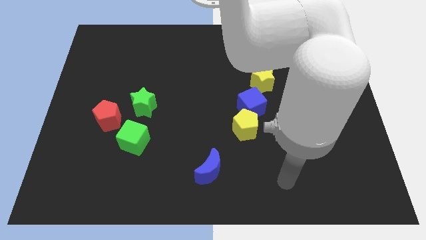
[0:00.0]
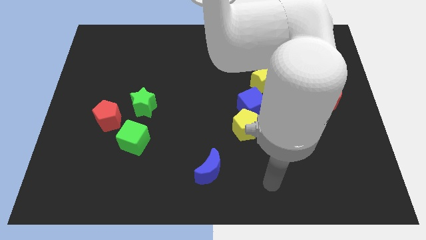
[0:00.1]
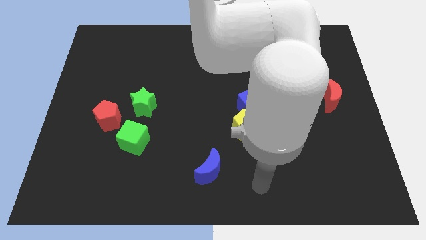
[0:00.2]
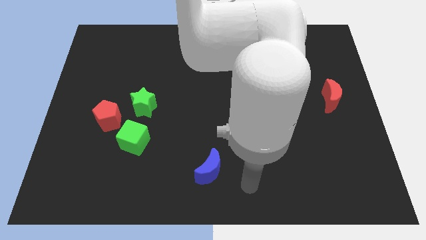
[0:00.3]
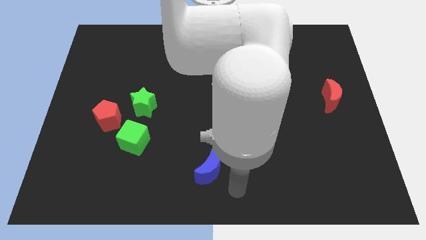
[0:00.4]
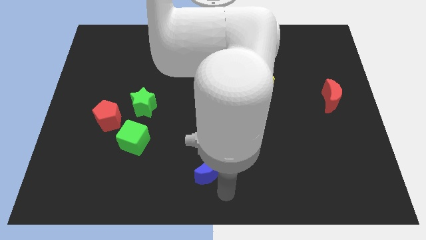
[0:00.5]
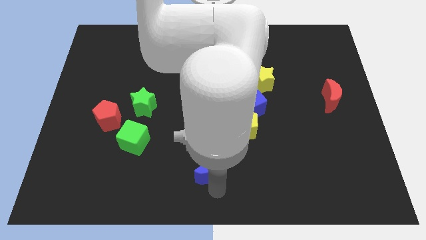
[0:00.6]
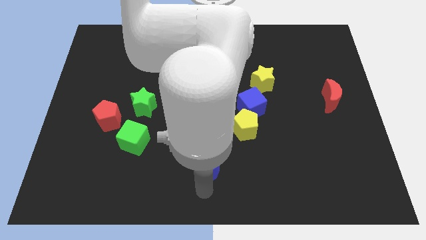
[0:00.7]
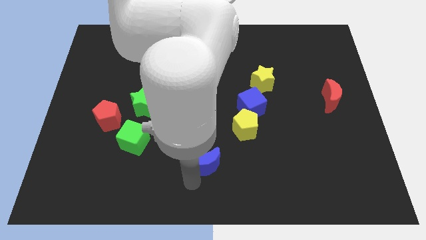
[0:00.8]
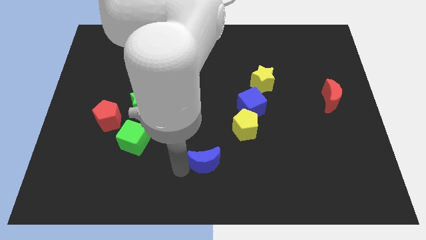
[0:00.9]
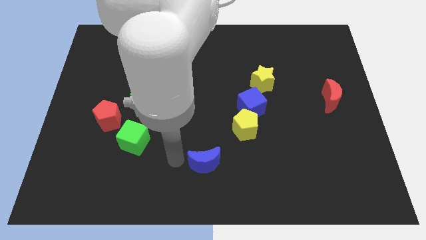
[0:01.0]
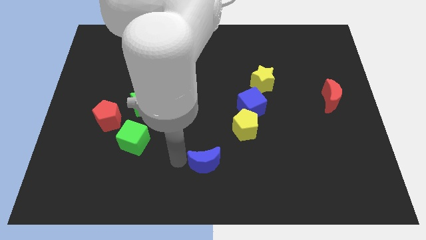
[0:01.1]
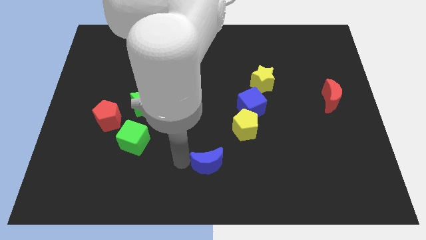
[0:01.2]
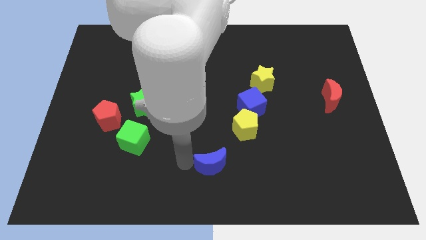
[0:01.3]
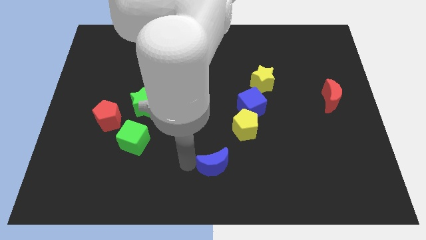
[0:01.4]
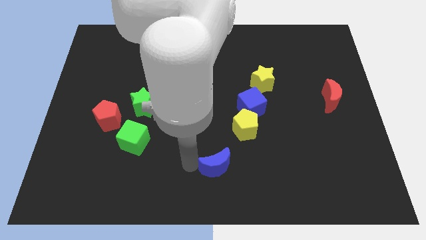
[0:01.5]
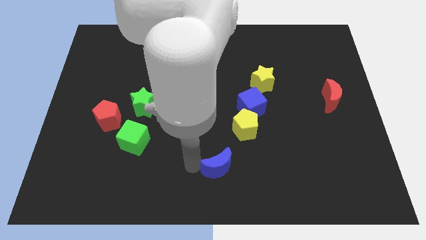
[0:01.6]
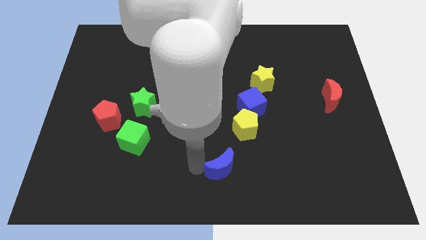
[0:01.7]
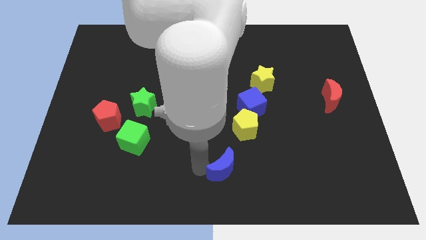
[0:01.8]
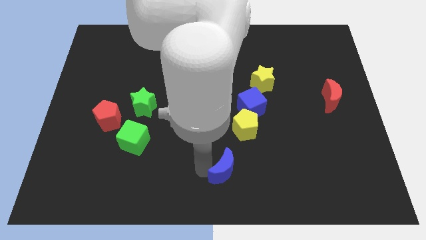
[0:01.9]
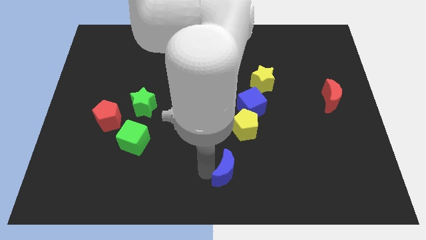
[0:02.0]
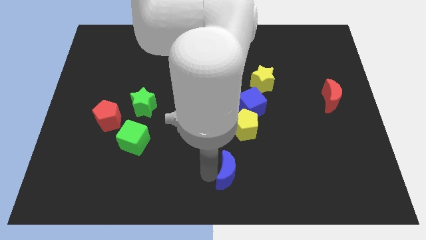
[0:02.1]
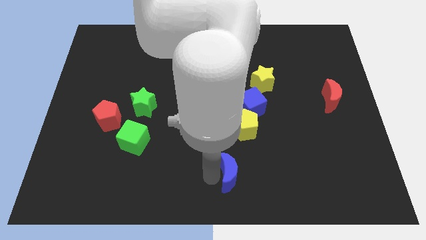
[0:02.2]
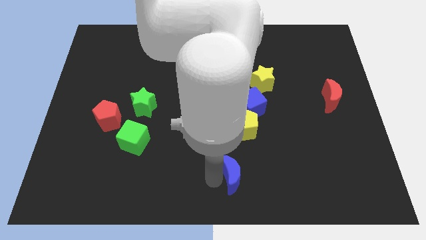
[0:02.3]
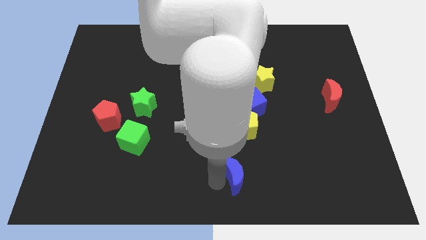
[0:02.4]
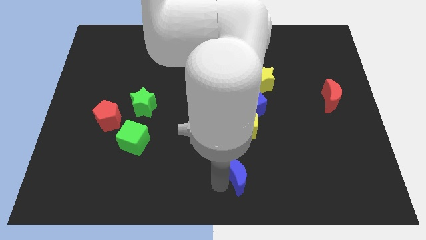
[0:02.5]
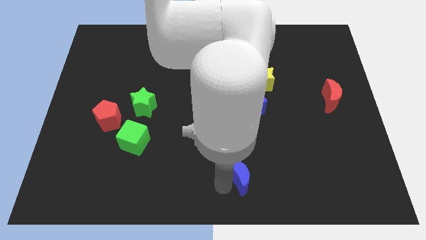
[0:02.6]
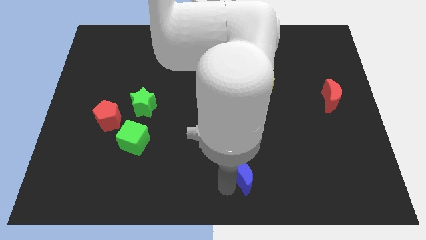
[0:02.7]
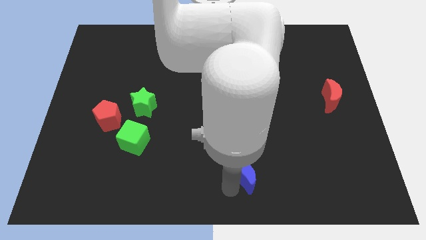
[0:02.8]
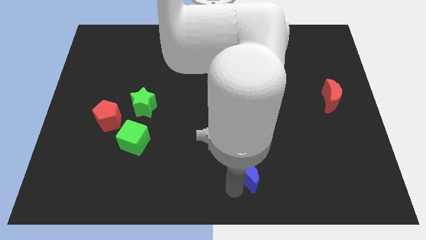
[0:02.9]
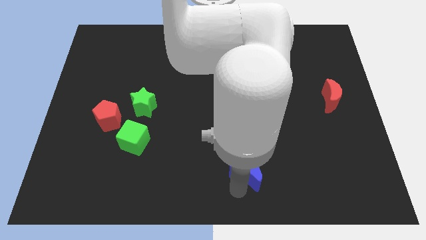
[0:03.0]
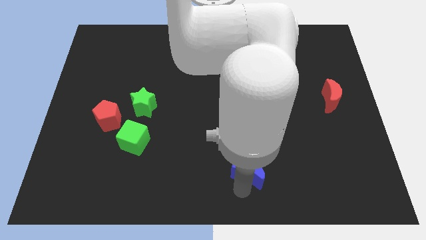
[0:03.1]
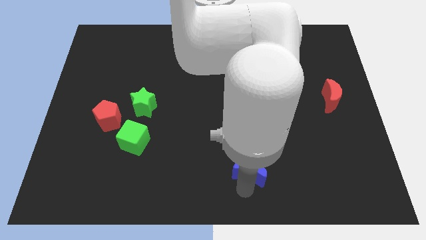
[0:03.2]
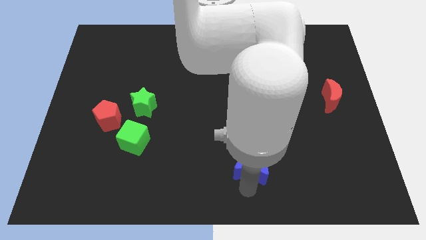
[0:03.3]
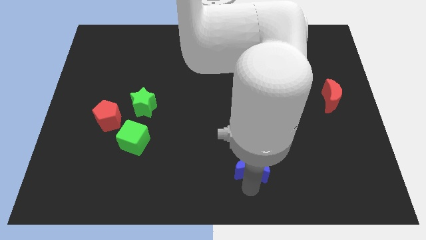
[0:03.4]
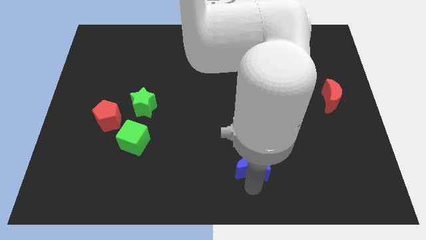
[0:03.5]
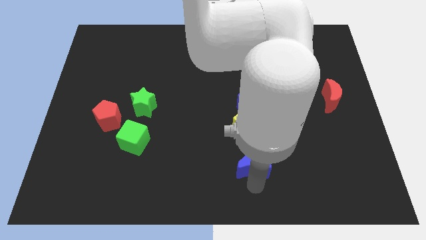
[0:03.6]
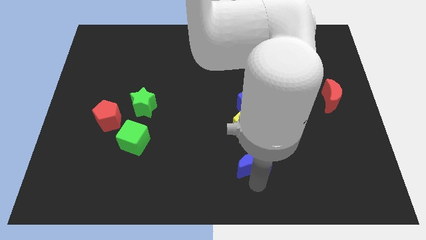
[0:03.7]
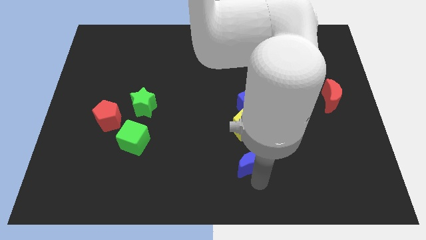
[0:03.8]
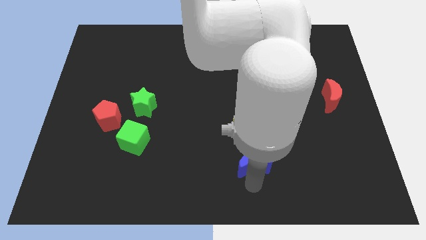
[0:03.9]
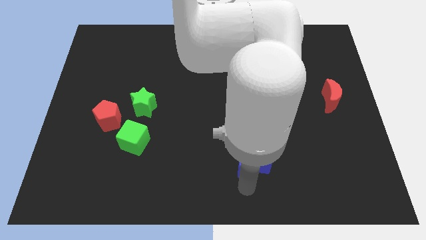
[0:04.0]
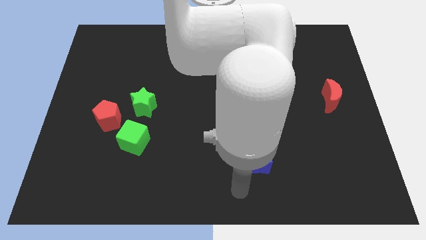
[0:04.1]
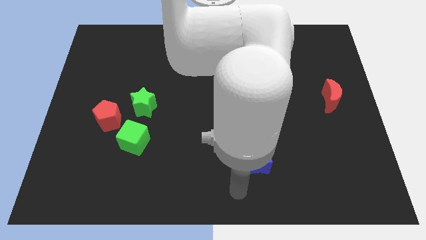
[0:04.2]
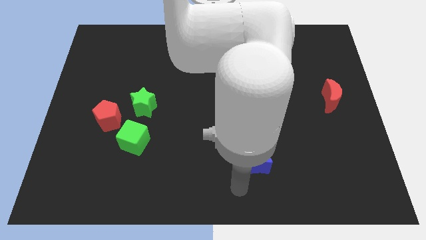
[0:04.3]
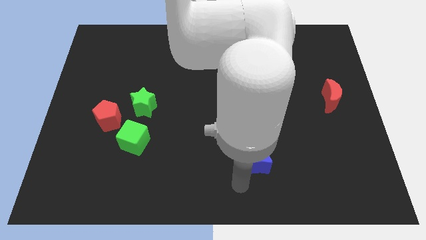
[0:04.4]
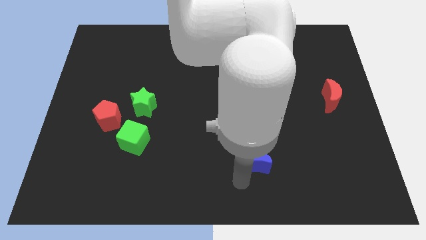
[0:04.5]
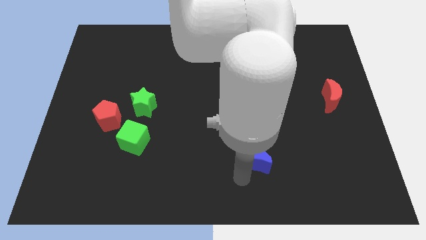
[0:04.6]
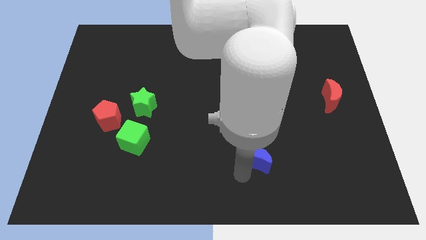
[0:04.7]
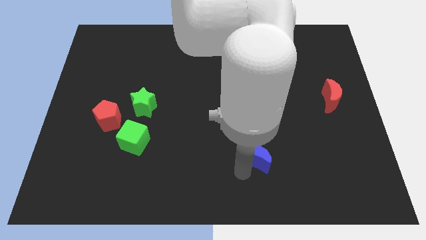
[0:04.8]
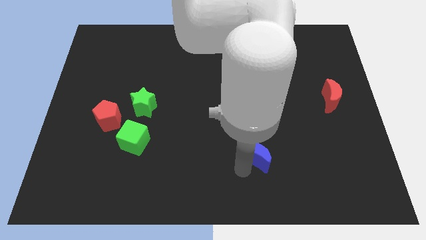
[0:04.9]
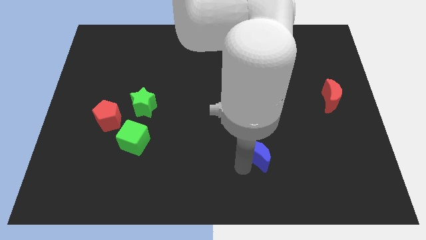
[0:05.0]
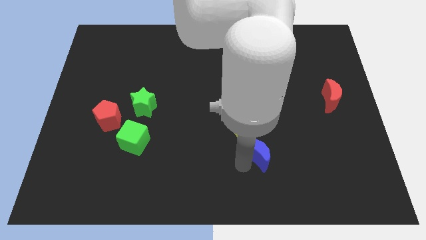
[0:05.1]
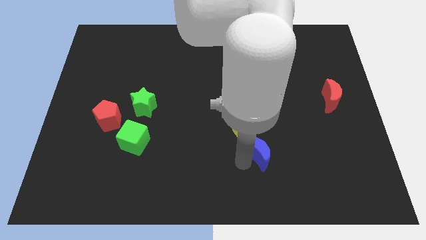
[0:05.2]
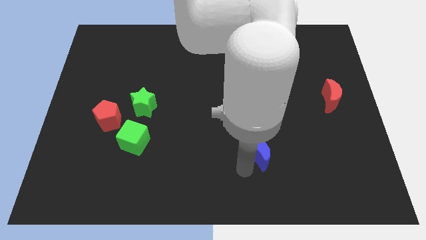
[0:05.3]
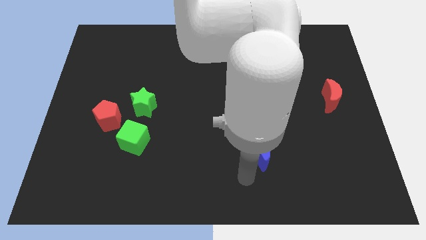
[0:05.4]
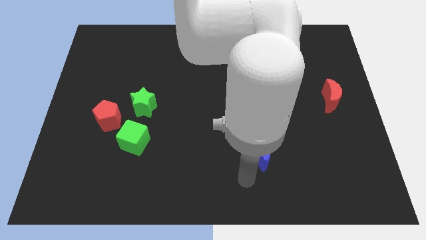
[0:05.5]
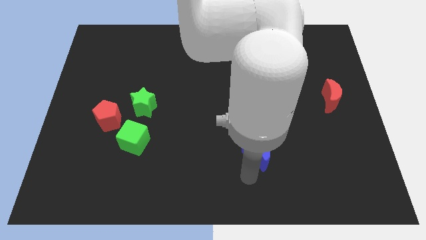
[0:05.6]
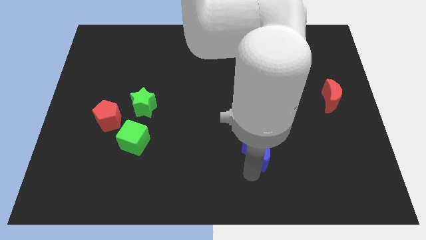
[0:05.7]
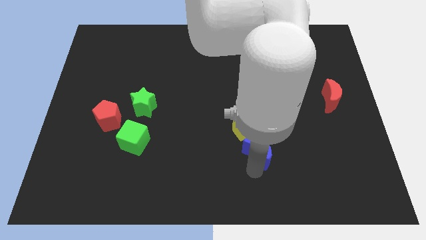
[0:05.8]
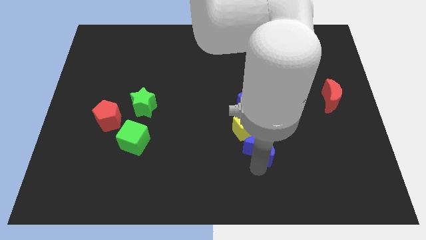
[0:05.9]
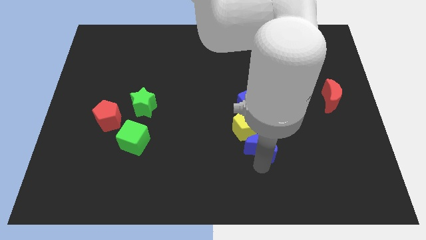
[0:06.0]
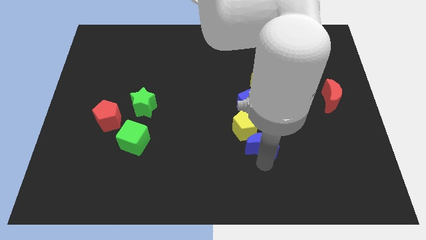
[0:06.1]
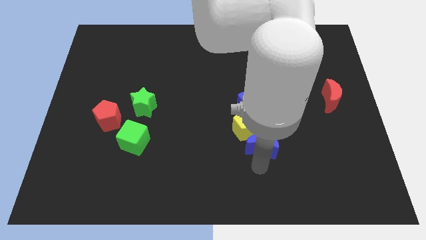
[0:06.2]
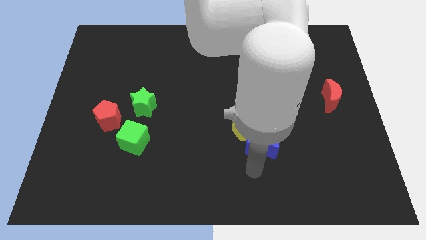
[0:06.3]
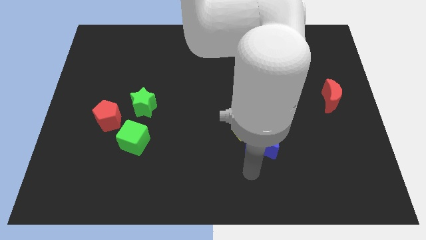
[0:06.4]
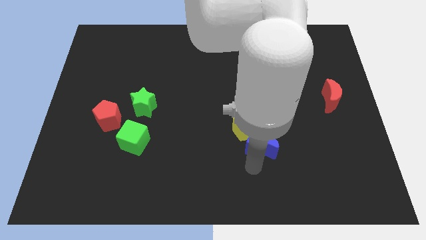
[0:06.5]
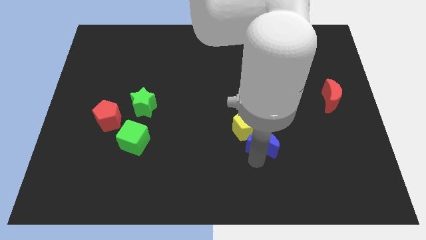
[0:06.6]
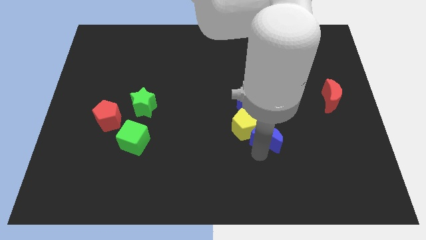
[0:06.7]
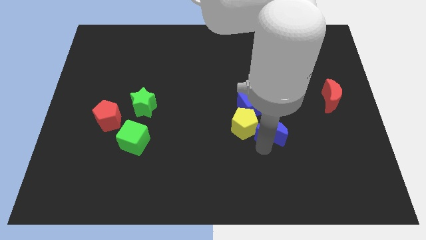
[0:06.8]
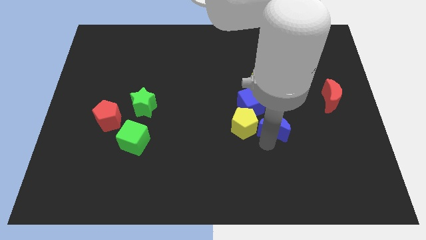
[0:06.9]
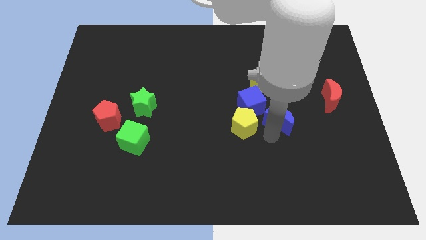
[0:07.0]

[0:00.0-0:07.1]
slide the blue moon up and then to the right

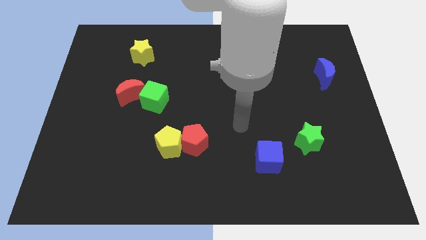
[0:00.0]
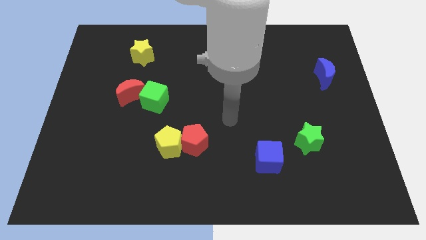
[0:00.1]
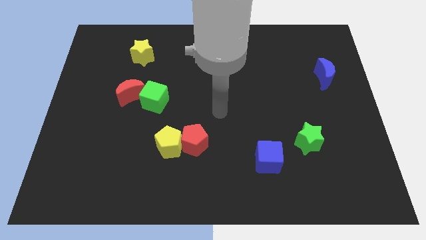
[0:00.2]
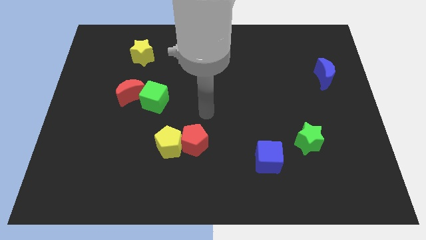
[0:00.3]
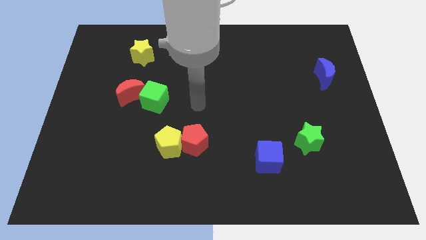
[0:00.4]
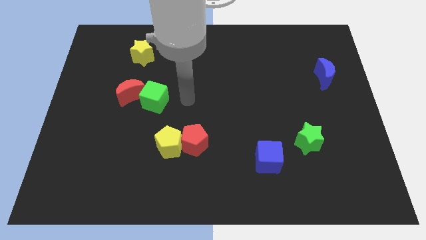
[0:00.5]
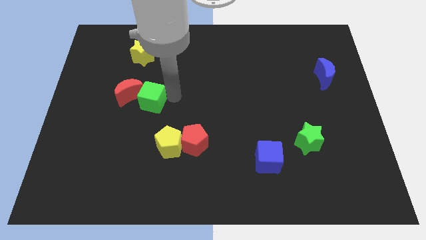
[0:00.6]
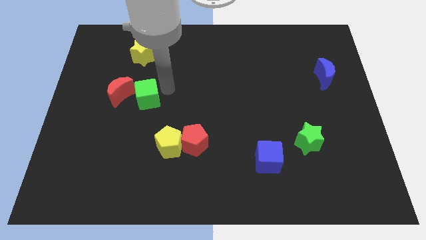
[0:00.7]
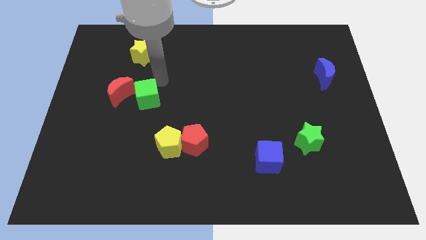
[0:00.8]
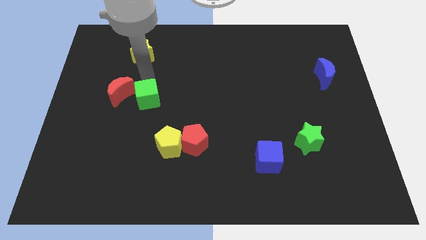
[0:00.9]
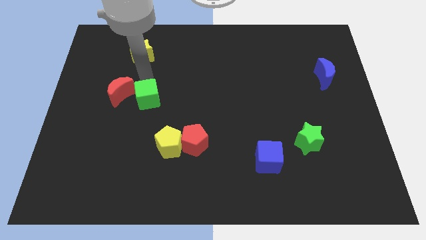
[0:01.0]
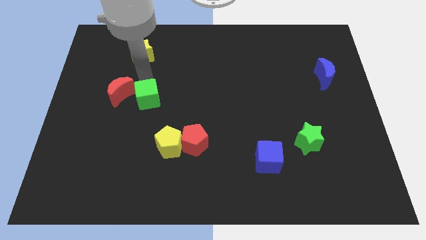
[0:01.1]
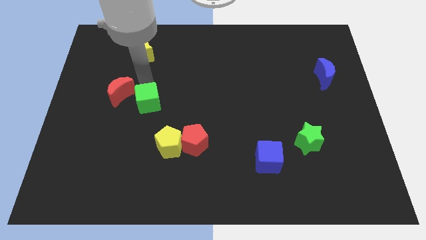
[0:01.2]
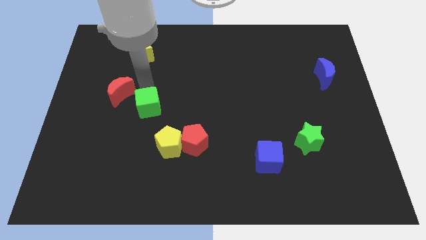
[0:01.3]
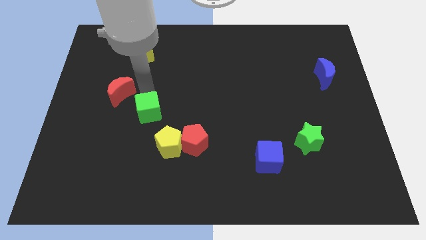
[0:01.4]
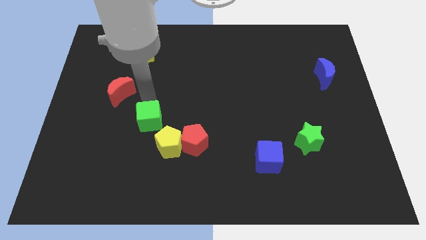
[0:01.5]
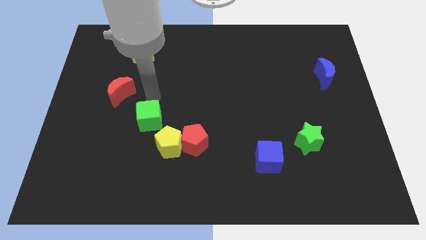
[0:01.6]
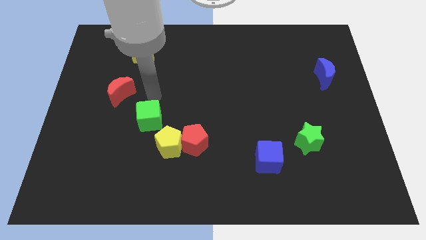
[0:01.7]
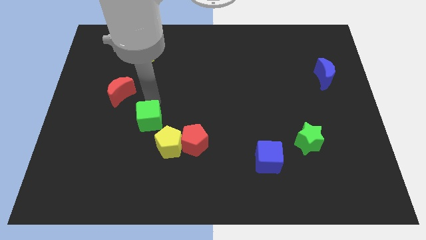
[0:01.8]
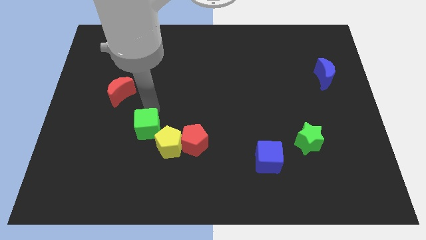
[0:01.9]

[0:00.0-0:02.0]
slightly slide the green cube down
